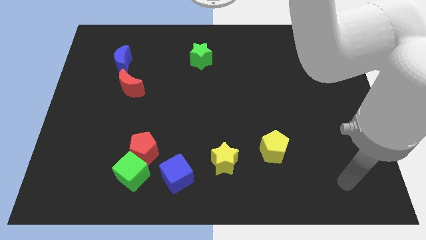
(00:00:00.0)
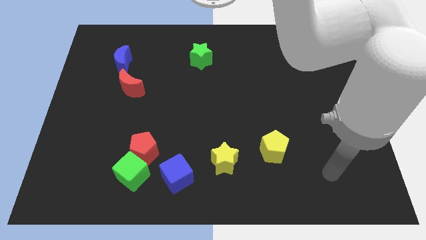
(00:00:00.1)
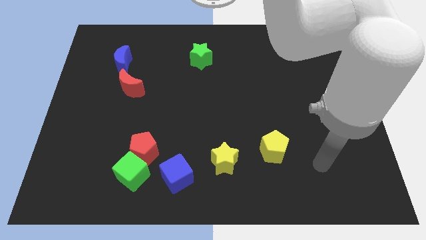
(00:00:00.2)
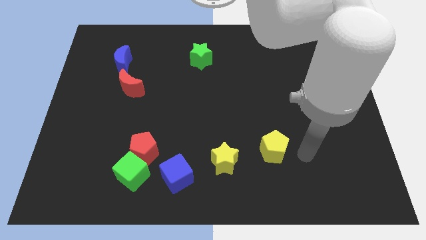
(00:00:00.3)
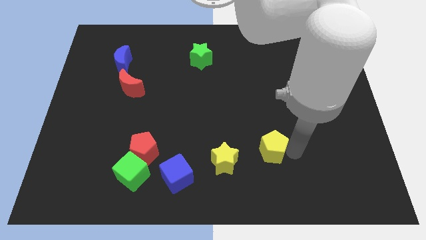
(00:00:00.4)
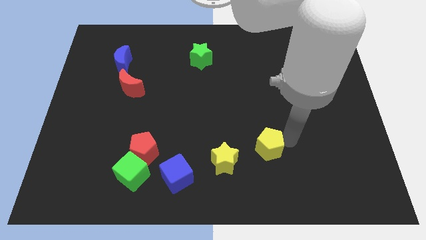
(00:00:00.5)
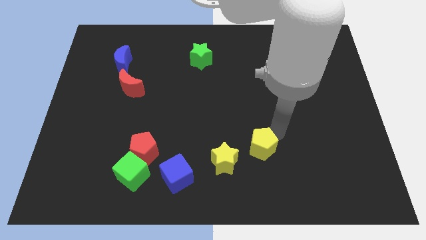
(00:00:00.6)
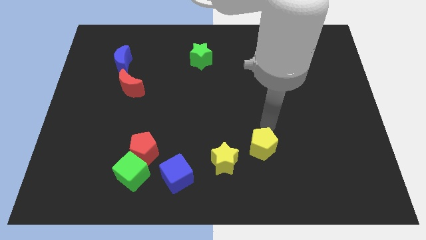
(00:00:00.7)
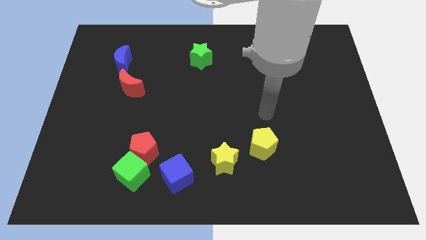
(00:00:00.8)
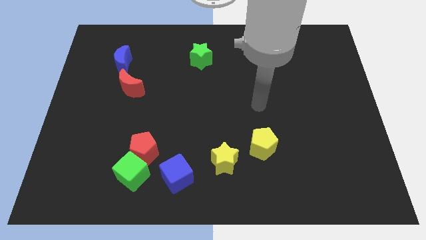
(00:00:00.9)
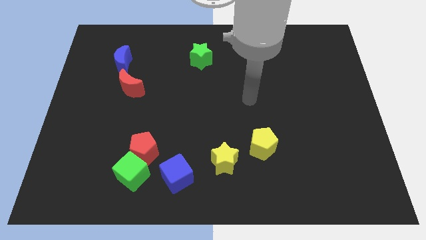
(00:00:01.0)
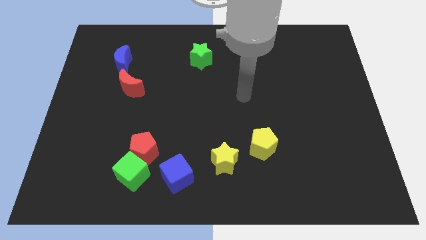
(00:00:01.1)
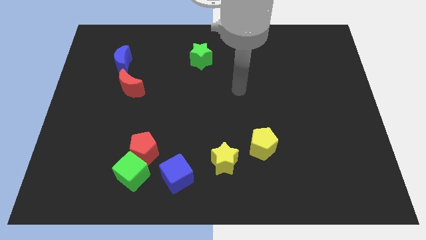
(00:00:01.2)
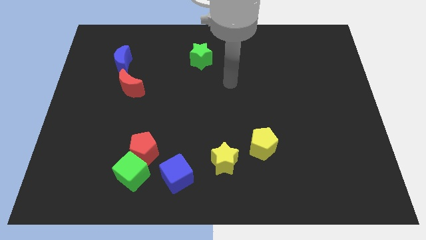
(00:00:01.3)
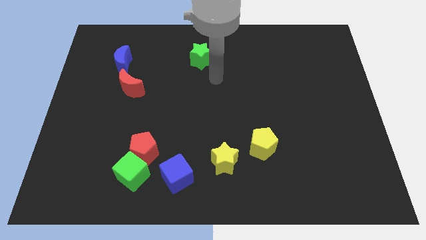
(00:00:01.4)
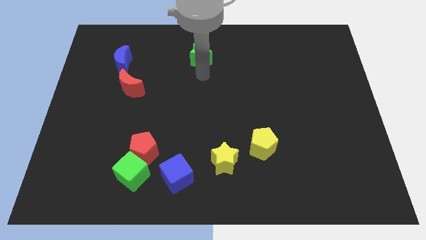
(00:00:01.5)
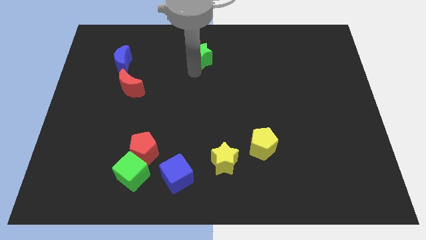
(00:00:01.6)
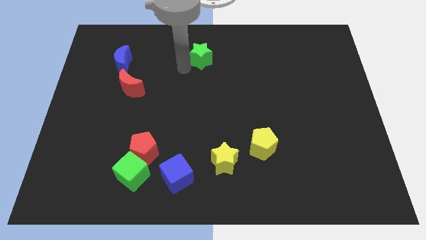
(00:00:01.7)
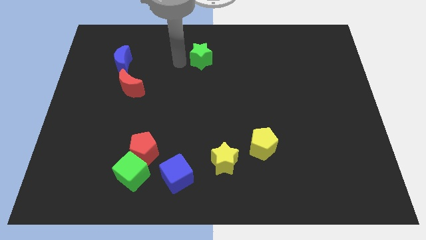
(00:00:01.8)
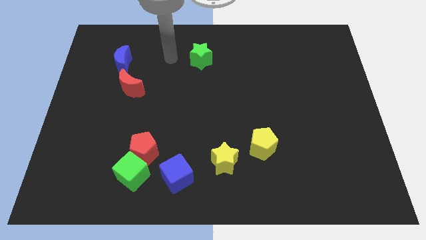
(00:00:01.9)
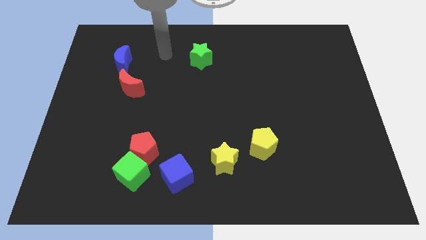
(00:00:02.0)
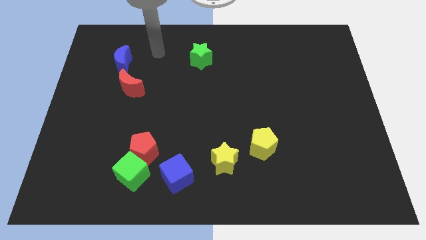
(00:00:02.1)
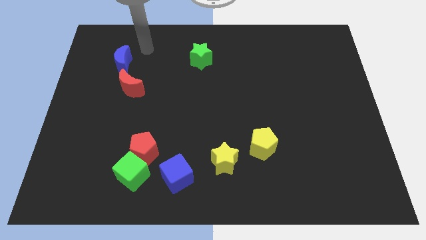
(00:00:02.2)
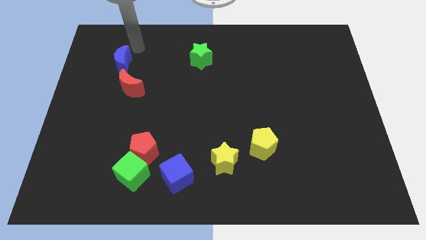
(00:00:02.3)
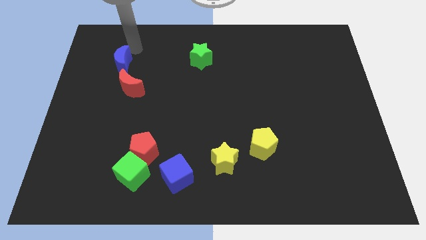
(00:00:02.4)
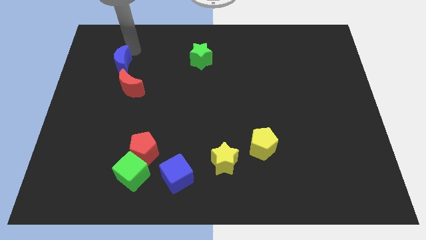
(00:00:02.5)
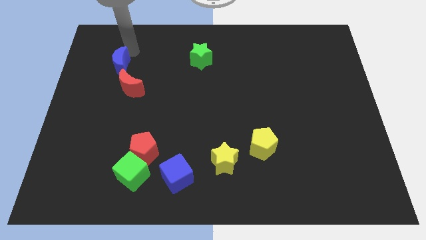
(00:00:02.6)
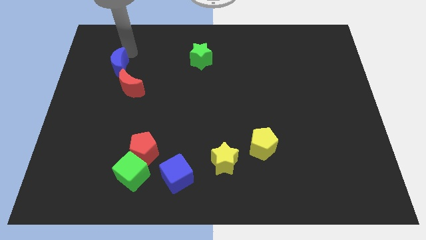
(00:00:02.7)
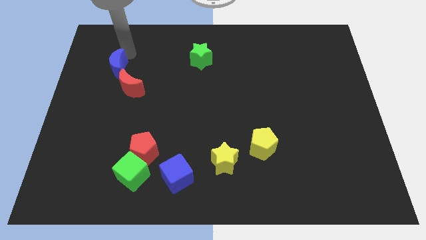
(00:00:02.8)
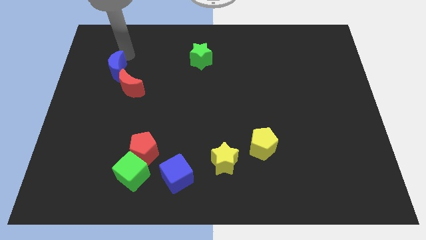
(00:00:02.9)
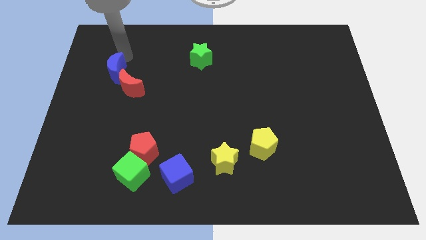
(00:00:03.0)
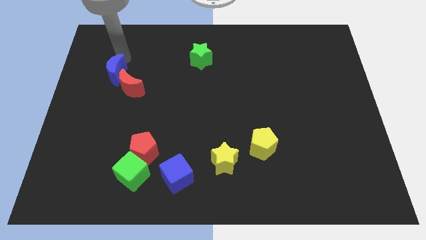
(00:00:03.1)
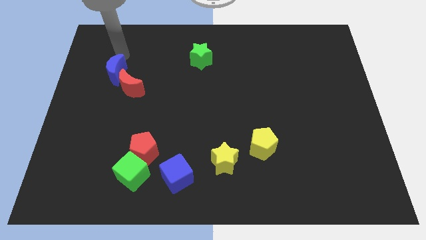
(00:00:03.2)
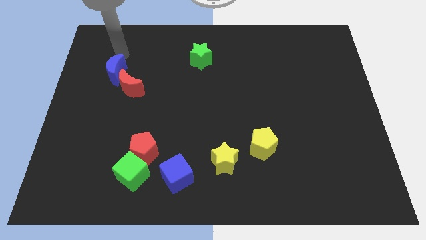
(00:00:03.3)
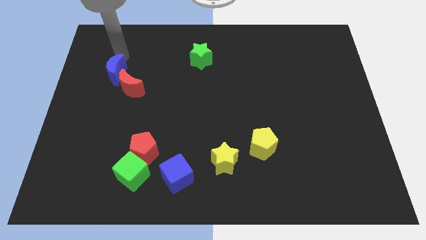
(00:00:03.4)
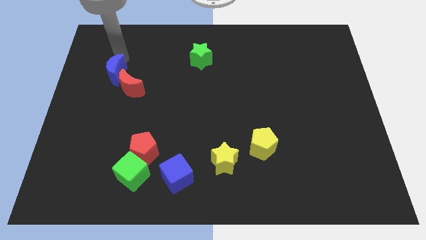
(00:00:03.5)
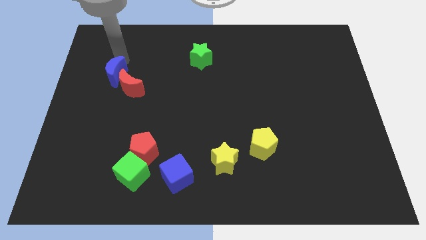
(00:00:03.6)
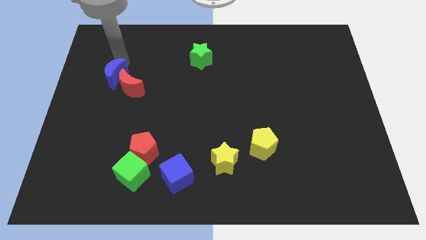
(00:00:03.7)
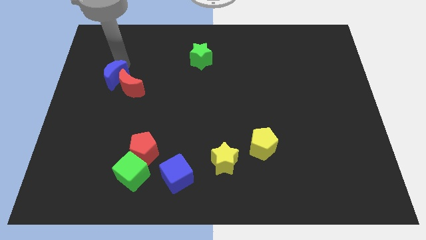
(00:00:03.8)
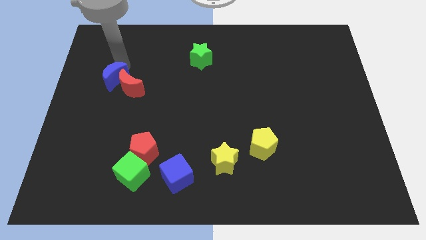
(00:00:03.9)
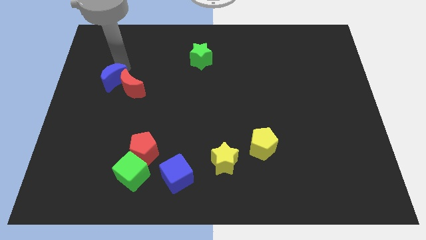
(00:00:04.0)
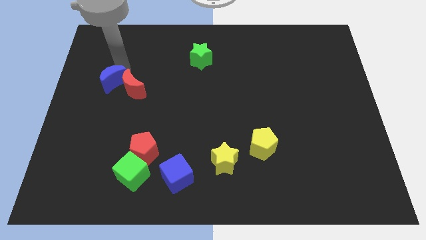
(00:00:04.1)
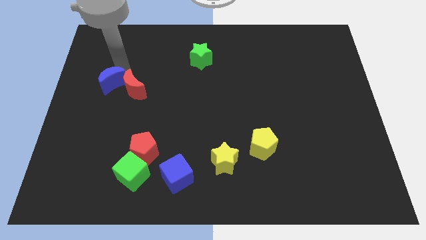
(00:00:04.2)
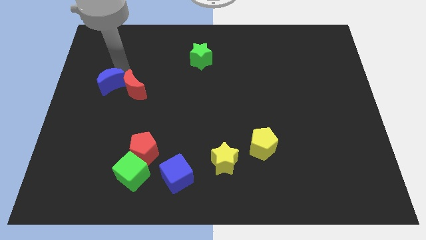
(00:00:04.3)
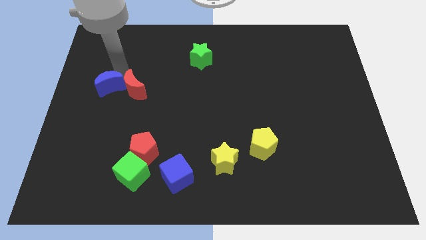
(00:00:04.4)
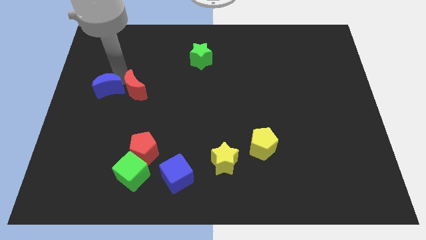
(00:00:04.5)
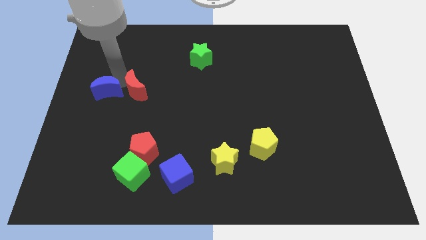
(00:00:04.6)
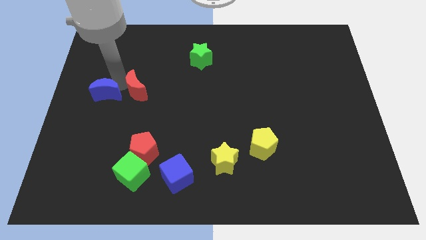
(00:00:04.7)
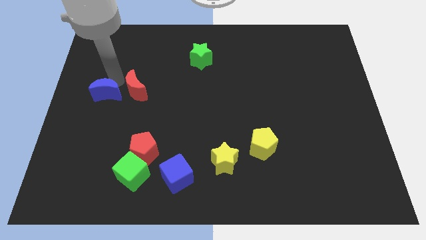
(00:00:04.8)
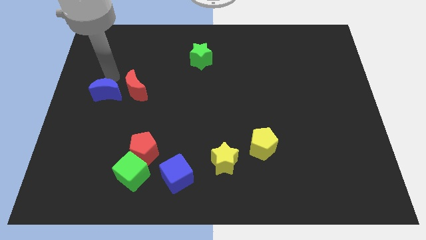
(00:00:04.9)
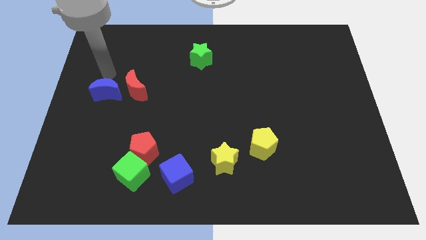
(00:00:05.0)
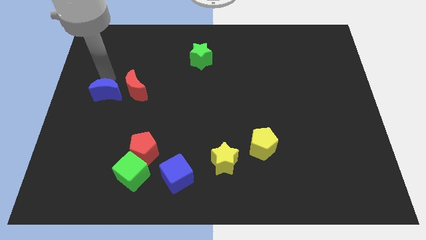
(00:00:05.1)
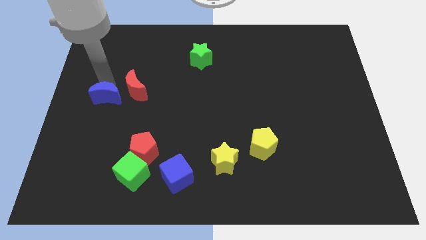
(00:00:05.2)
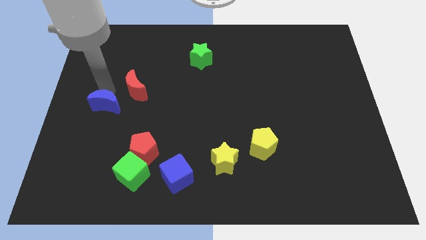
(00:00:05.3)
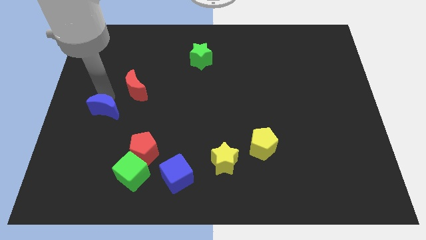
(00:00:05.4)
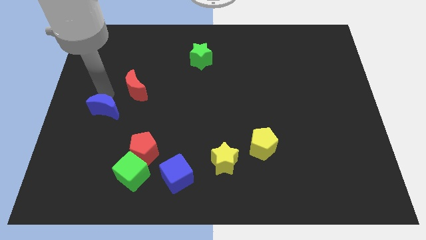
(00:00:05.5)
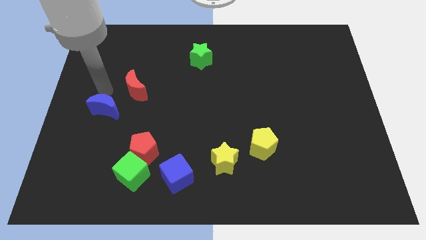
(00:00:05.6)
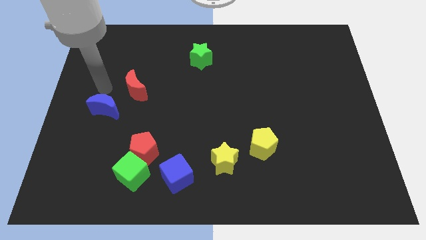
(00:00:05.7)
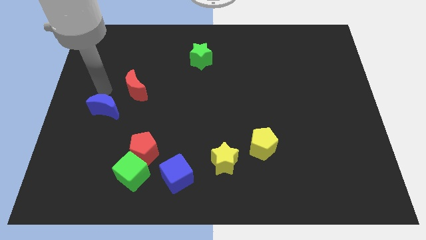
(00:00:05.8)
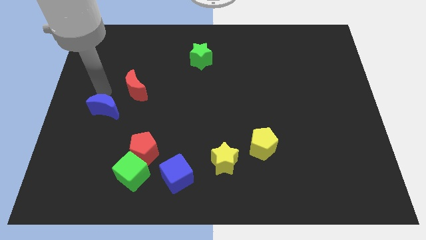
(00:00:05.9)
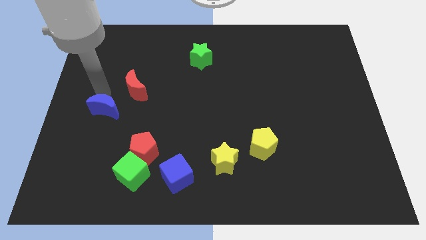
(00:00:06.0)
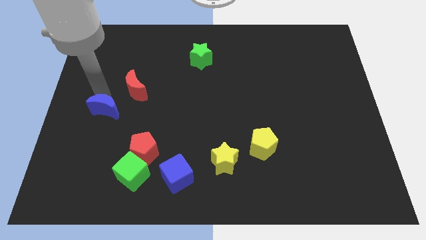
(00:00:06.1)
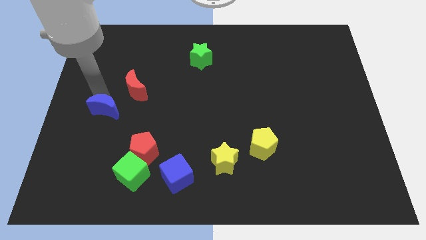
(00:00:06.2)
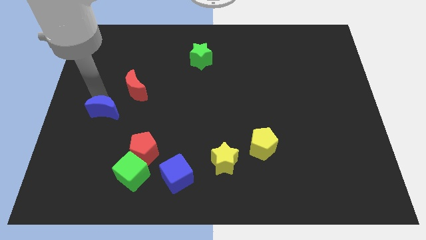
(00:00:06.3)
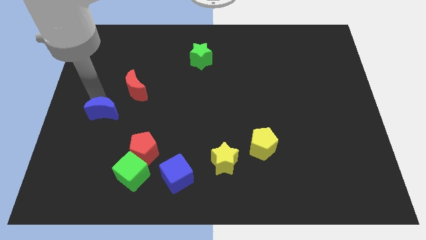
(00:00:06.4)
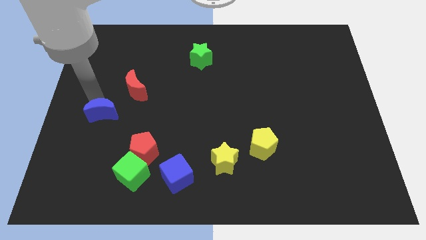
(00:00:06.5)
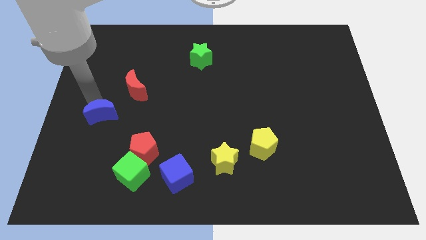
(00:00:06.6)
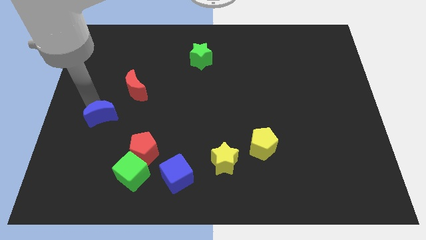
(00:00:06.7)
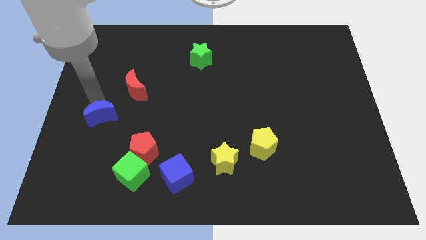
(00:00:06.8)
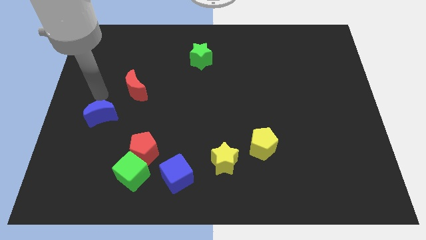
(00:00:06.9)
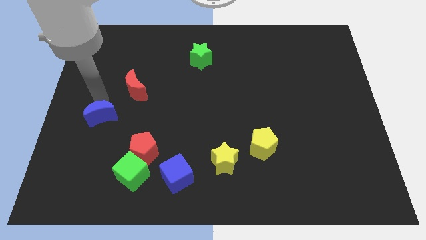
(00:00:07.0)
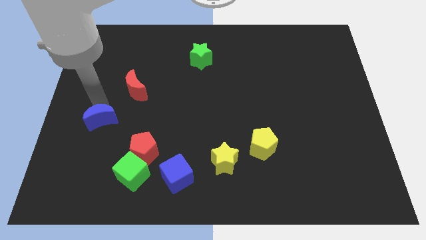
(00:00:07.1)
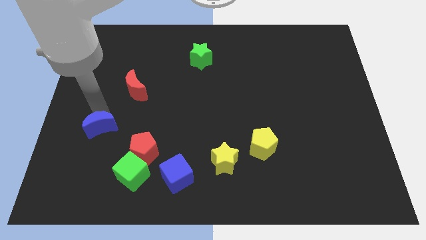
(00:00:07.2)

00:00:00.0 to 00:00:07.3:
push the blue moon down

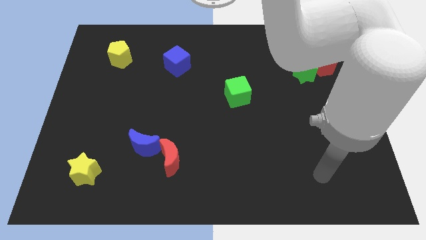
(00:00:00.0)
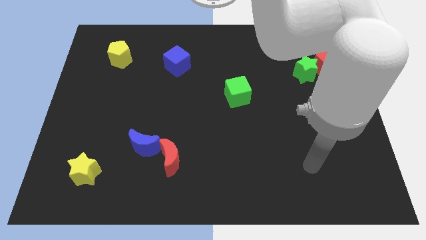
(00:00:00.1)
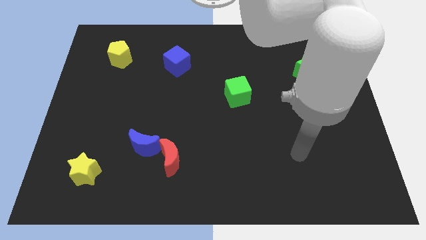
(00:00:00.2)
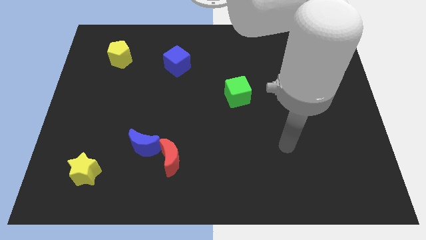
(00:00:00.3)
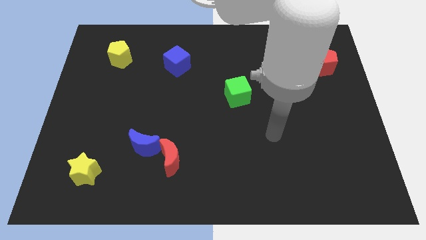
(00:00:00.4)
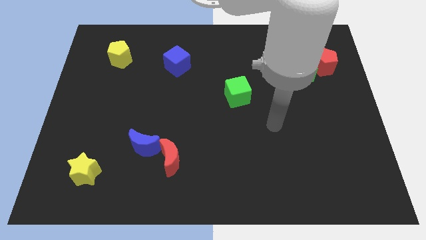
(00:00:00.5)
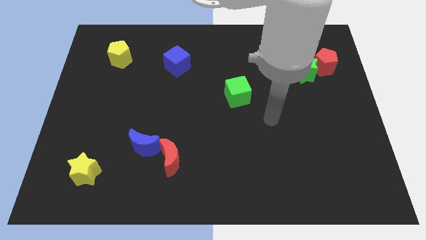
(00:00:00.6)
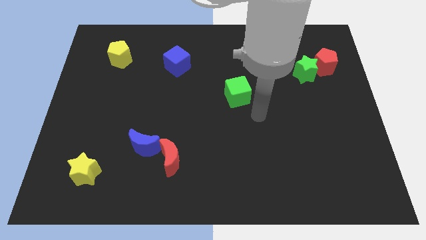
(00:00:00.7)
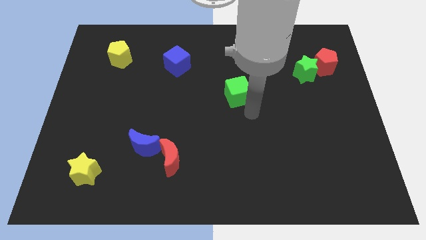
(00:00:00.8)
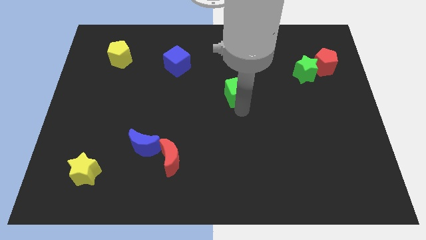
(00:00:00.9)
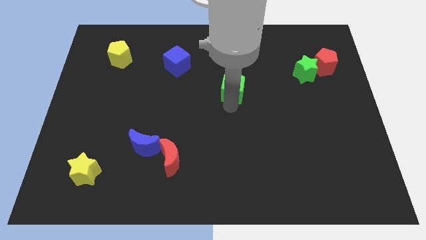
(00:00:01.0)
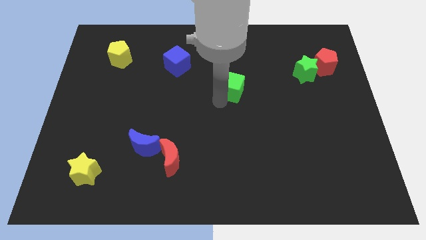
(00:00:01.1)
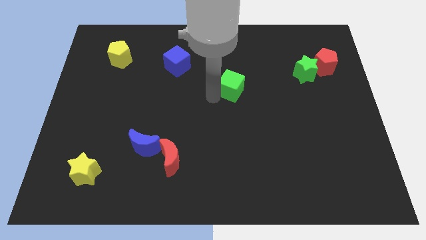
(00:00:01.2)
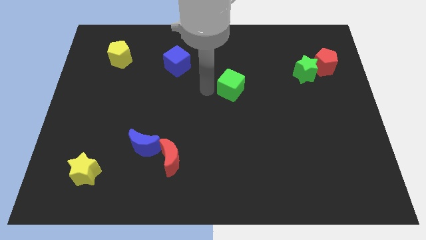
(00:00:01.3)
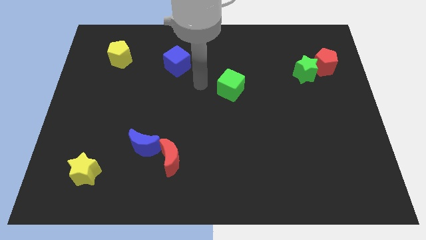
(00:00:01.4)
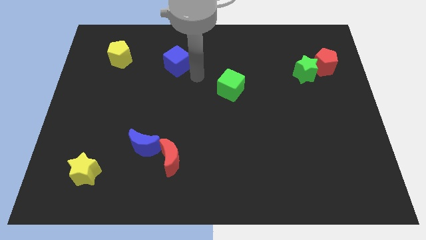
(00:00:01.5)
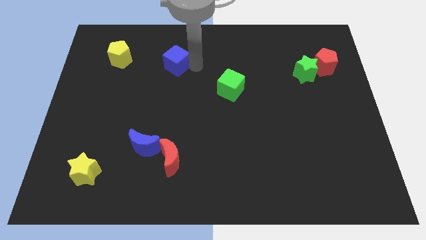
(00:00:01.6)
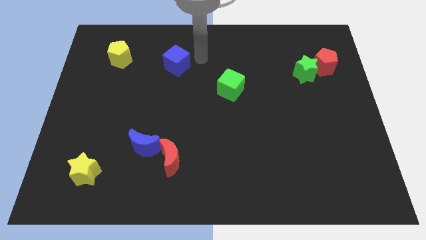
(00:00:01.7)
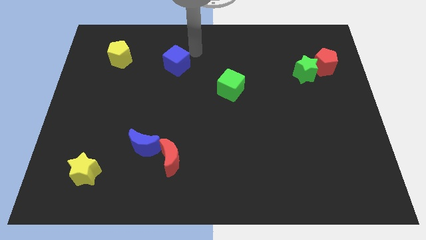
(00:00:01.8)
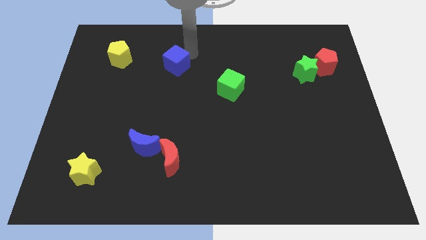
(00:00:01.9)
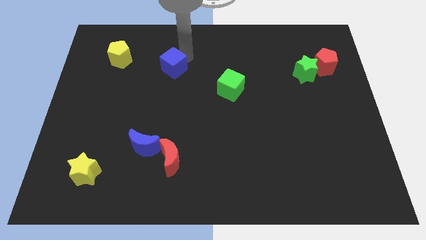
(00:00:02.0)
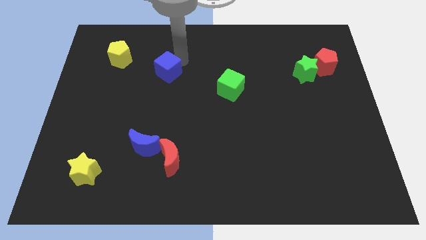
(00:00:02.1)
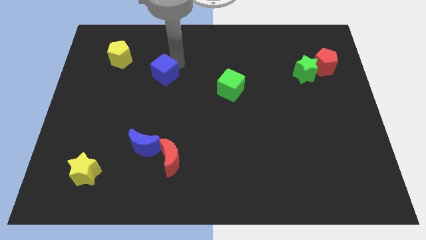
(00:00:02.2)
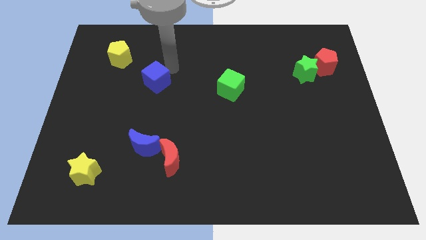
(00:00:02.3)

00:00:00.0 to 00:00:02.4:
push the blue cube a bit down and to the left diagonally
